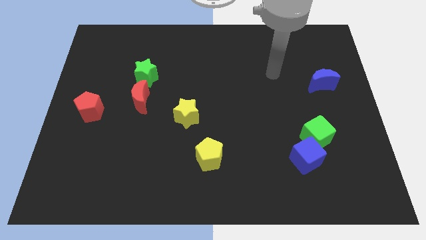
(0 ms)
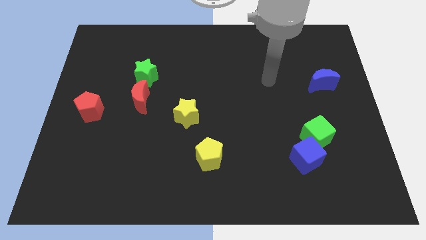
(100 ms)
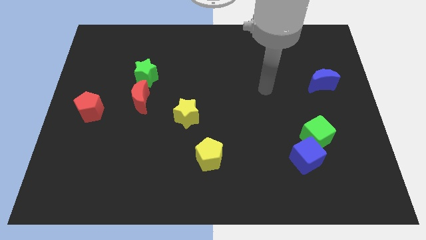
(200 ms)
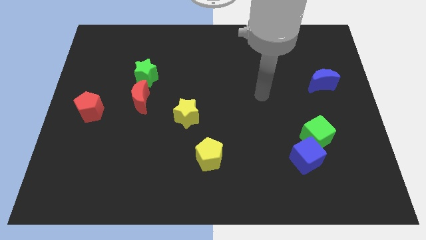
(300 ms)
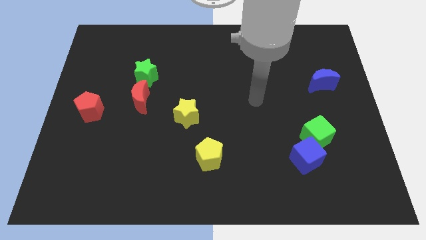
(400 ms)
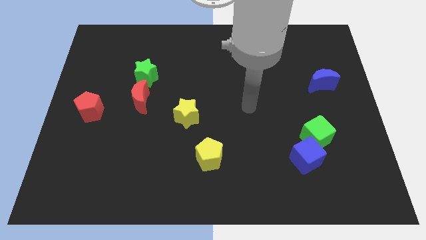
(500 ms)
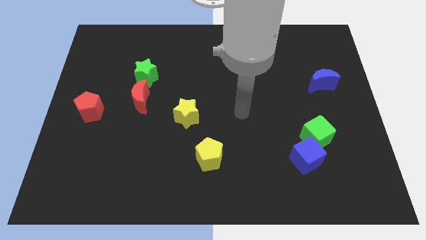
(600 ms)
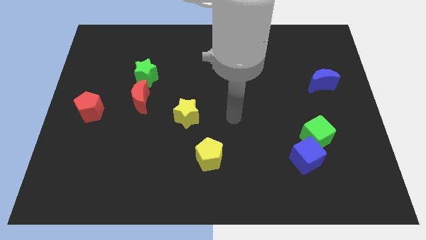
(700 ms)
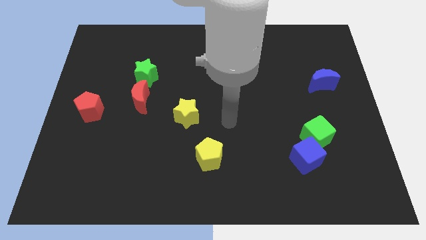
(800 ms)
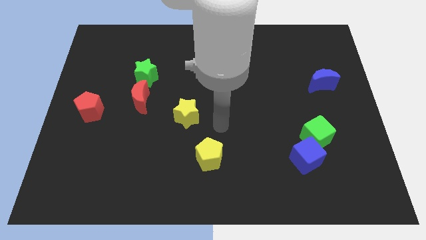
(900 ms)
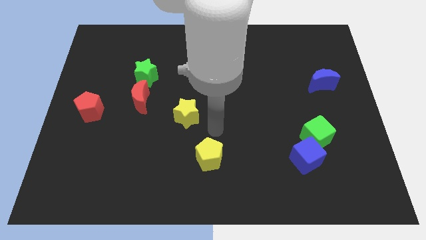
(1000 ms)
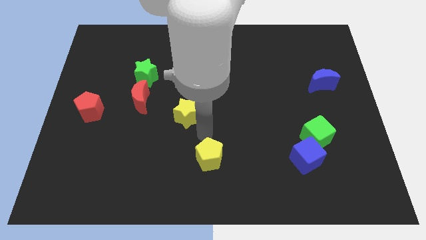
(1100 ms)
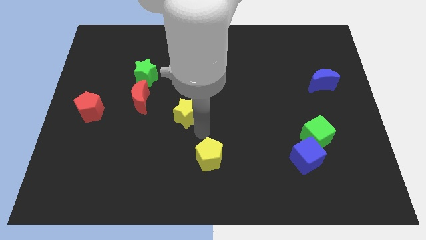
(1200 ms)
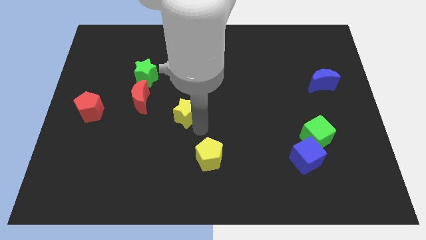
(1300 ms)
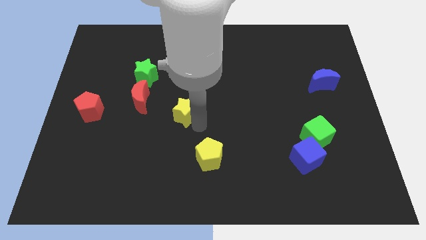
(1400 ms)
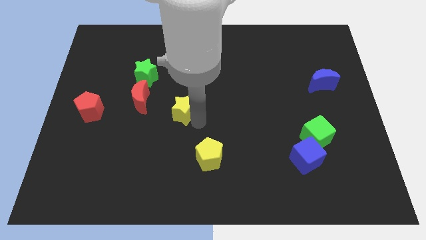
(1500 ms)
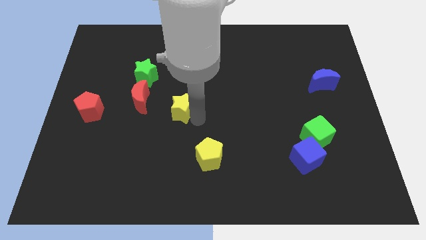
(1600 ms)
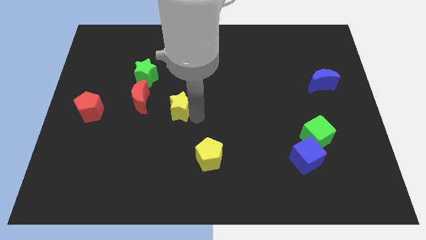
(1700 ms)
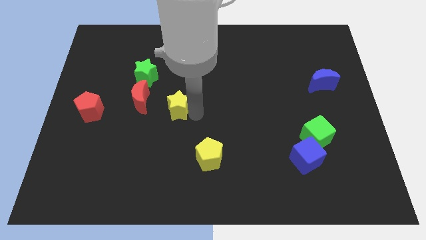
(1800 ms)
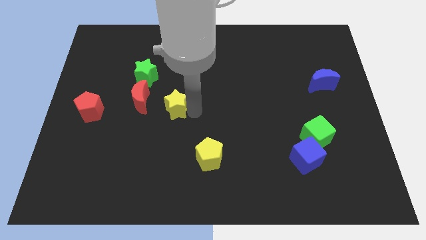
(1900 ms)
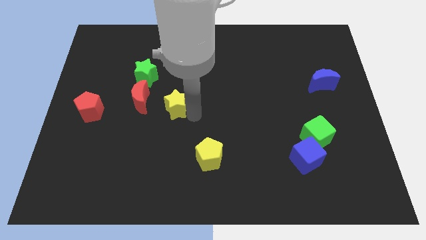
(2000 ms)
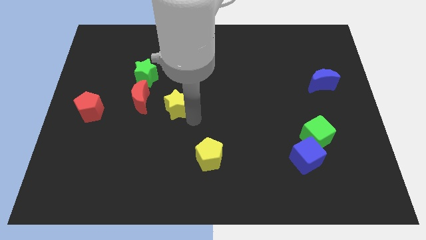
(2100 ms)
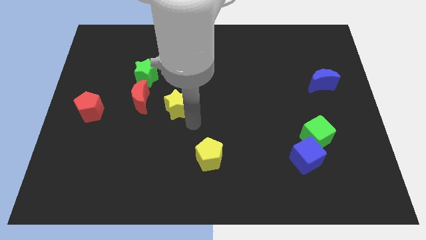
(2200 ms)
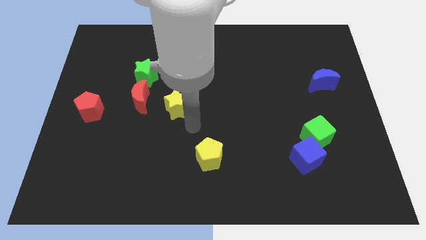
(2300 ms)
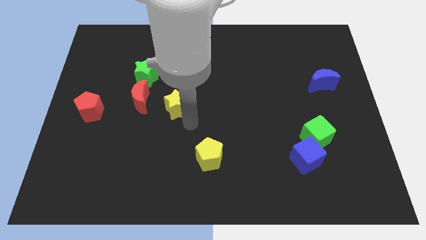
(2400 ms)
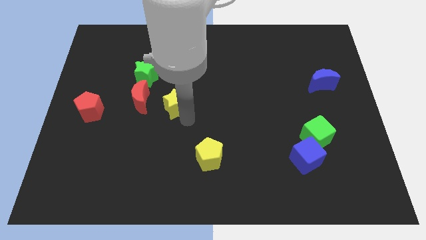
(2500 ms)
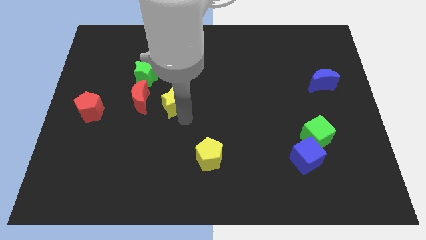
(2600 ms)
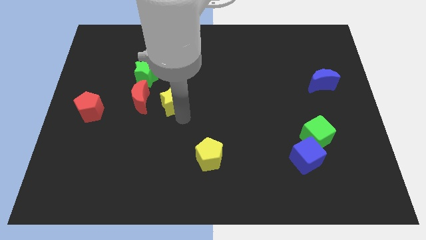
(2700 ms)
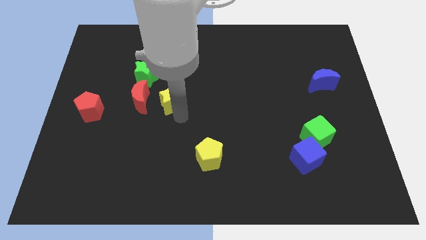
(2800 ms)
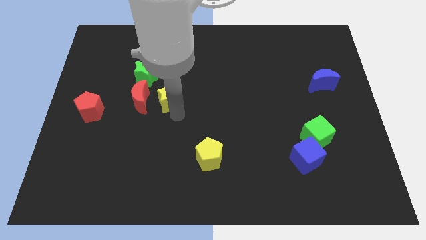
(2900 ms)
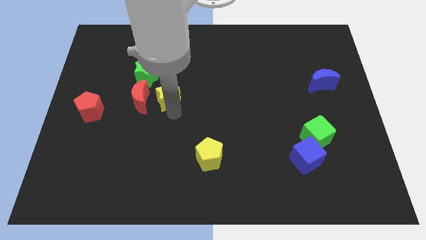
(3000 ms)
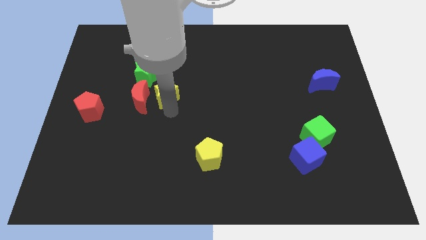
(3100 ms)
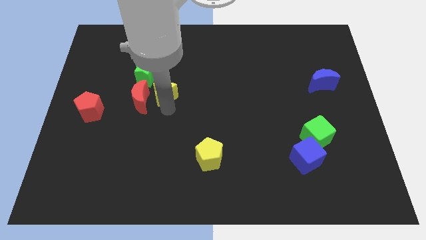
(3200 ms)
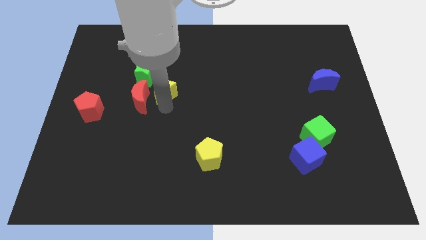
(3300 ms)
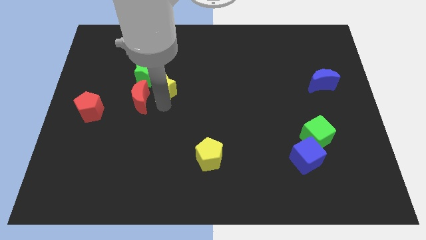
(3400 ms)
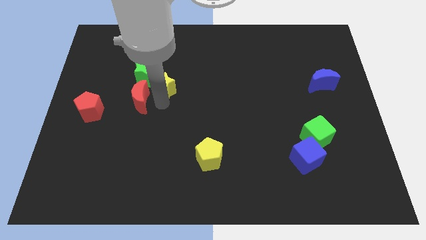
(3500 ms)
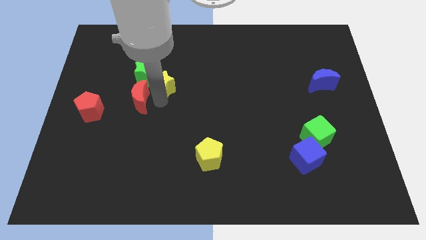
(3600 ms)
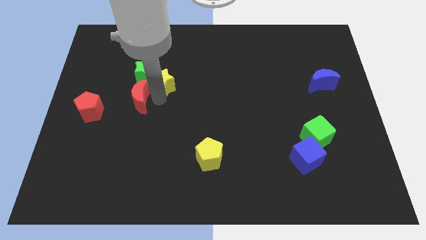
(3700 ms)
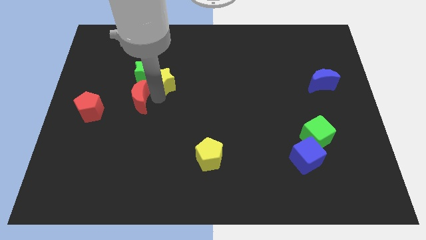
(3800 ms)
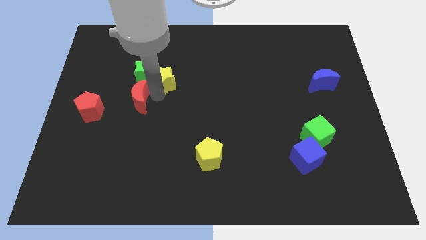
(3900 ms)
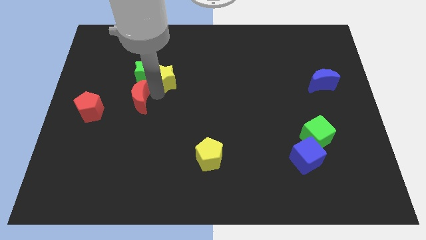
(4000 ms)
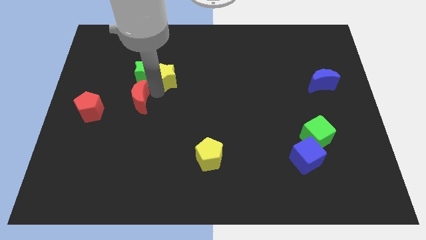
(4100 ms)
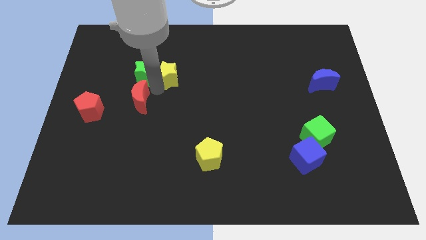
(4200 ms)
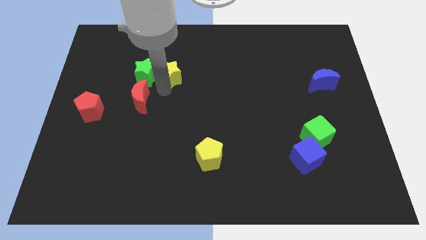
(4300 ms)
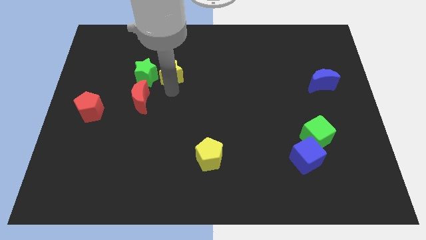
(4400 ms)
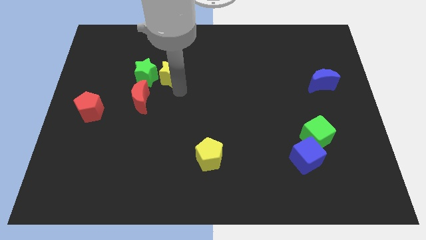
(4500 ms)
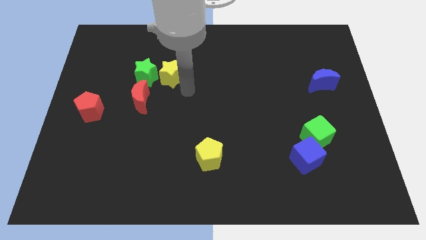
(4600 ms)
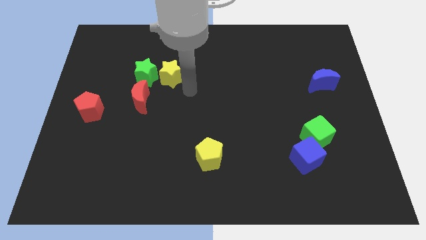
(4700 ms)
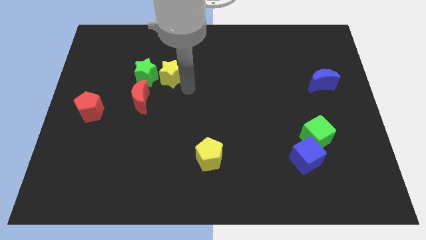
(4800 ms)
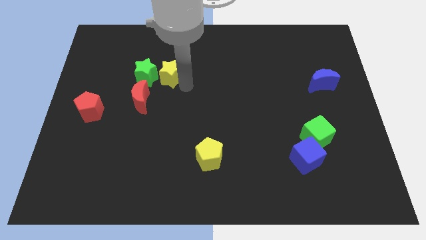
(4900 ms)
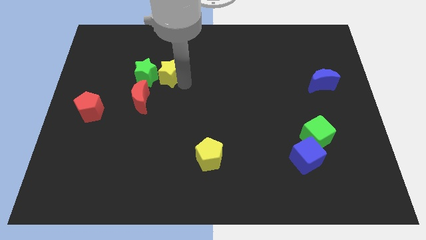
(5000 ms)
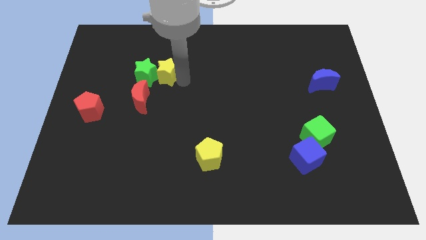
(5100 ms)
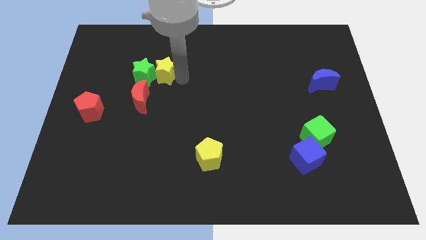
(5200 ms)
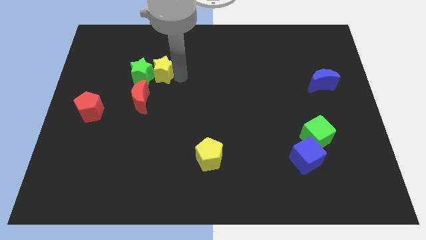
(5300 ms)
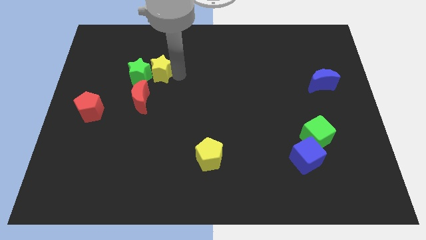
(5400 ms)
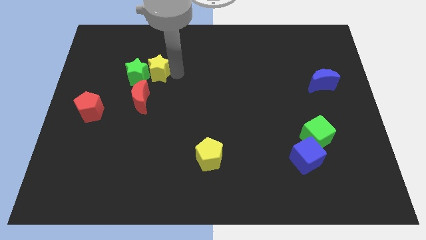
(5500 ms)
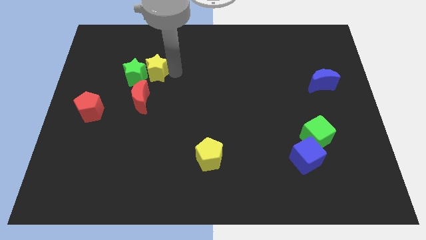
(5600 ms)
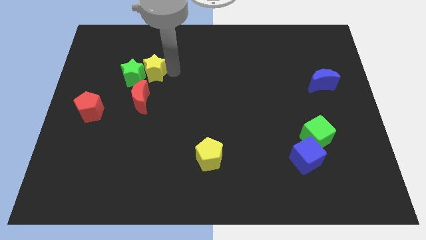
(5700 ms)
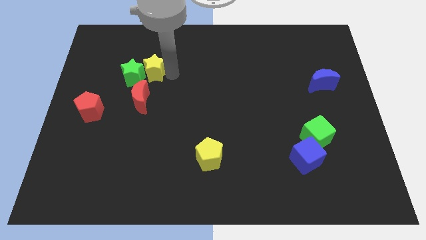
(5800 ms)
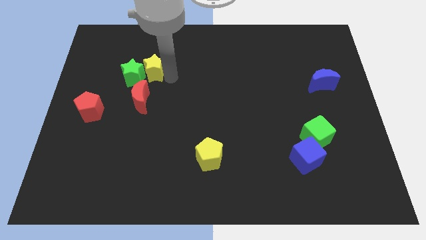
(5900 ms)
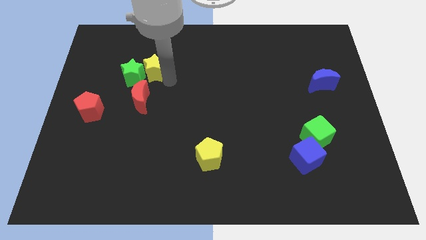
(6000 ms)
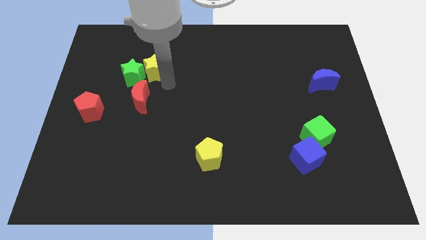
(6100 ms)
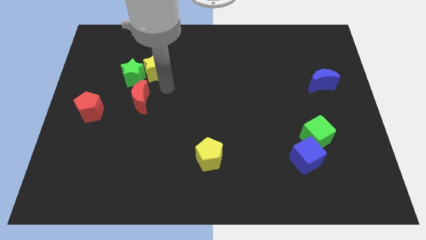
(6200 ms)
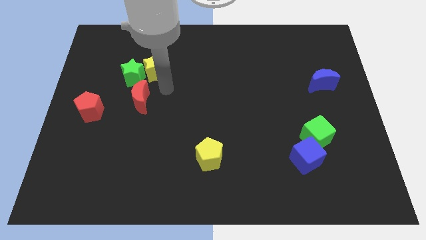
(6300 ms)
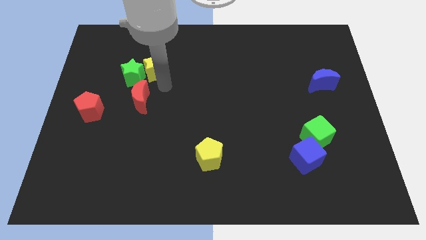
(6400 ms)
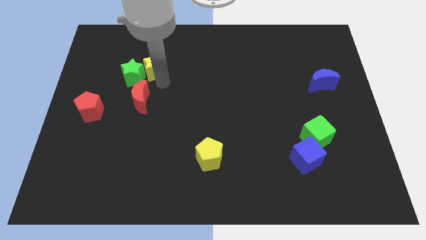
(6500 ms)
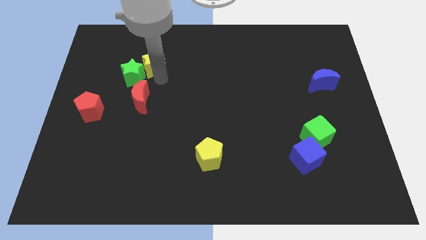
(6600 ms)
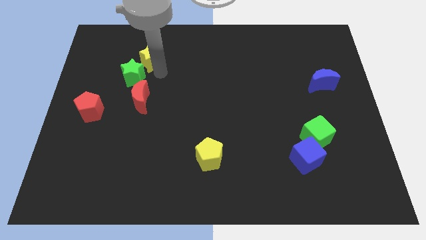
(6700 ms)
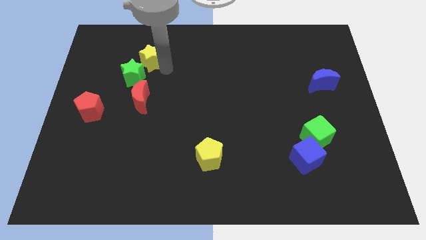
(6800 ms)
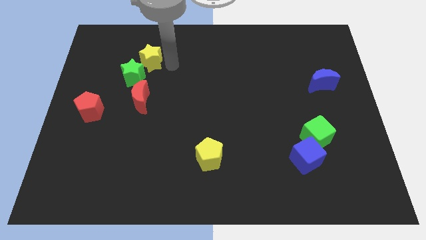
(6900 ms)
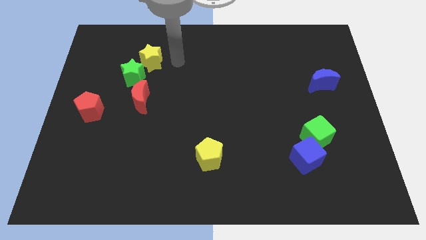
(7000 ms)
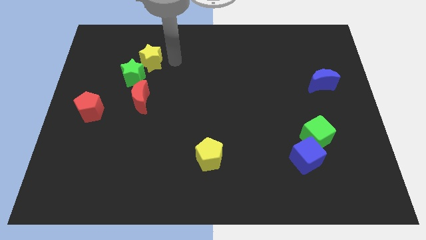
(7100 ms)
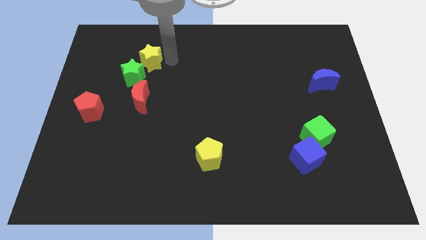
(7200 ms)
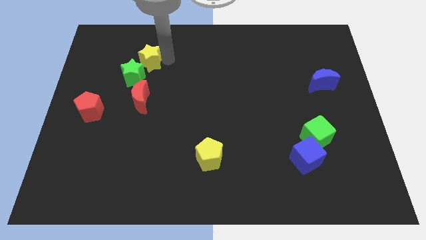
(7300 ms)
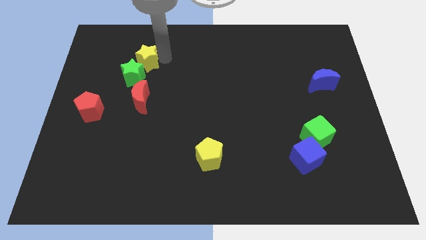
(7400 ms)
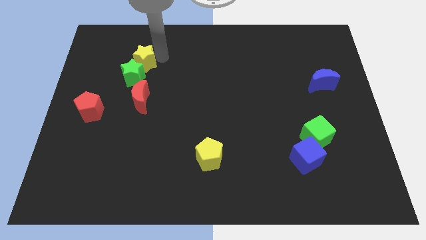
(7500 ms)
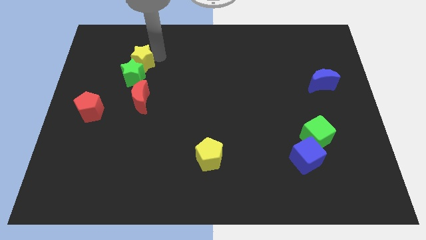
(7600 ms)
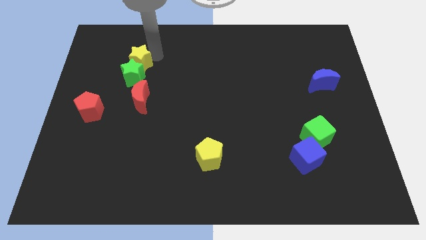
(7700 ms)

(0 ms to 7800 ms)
push the yellow star diagonally up and to the left of the green star
